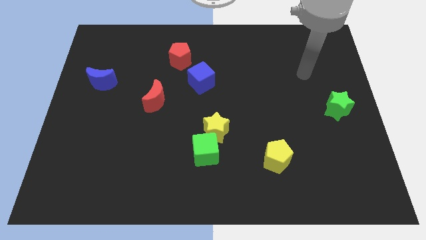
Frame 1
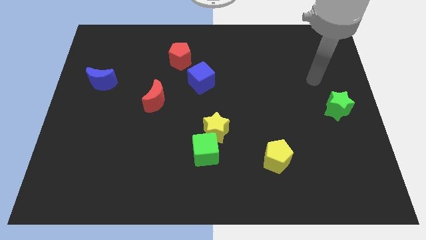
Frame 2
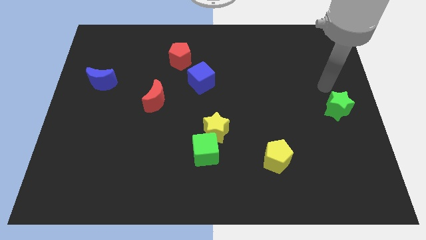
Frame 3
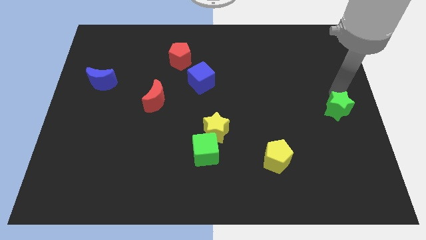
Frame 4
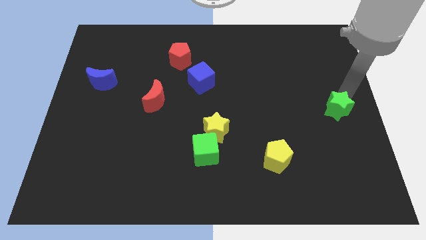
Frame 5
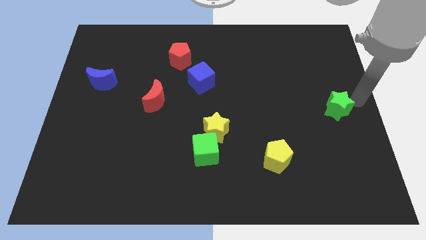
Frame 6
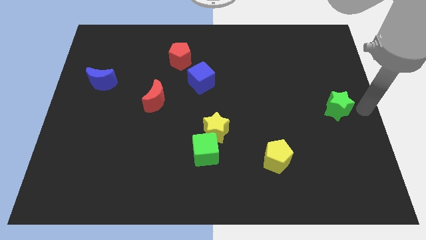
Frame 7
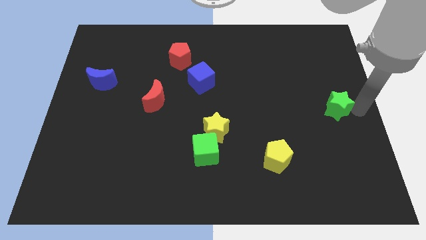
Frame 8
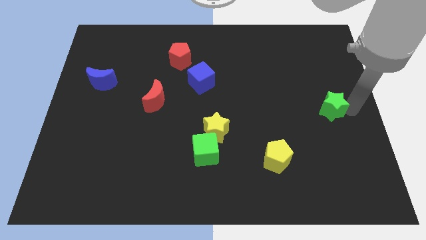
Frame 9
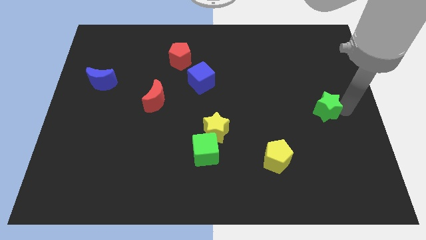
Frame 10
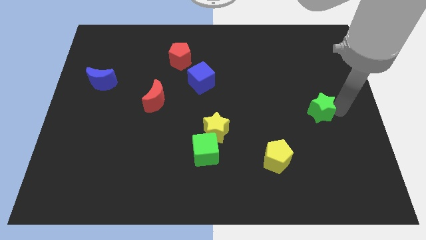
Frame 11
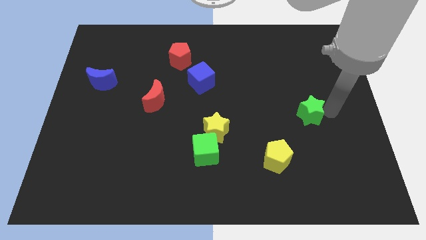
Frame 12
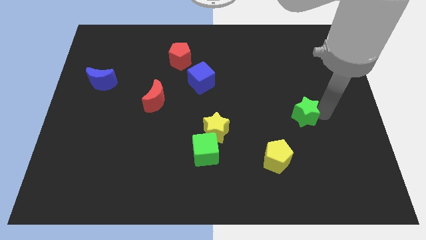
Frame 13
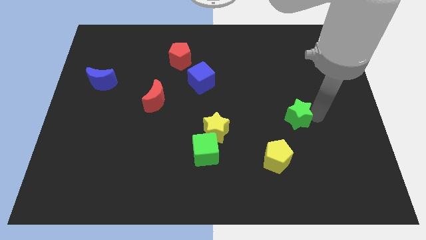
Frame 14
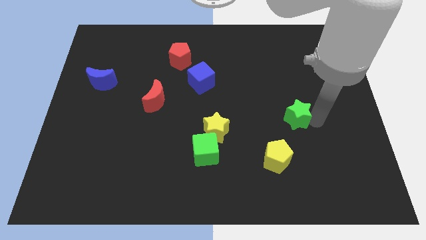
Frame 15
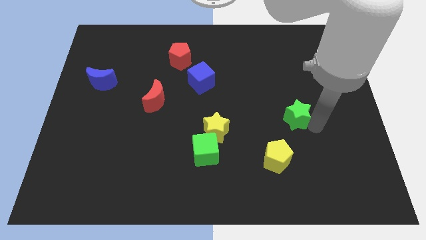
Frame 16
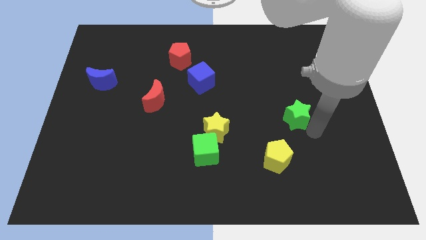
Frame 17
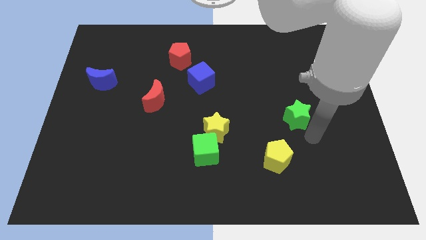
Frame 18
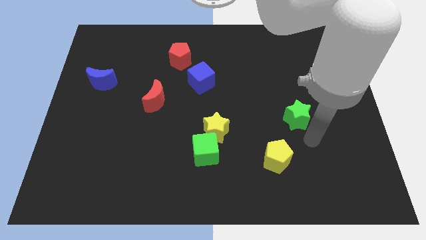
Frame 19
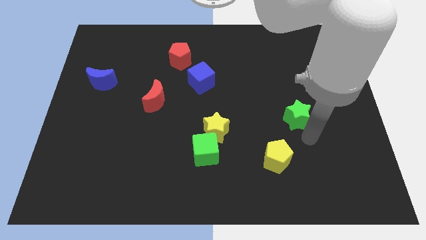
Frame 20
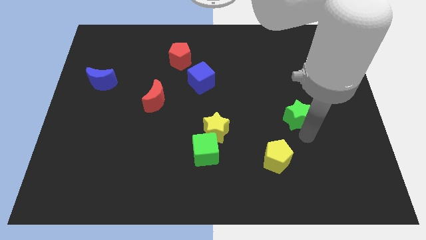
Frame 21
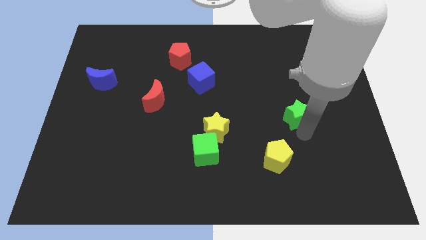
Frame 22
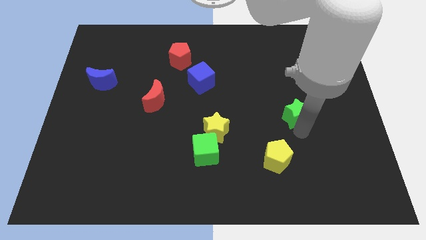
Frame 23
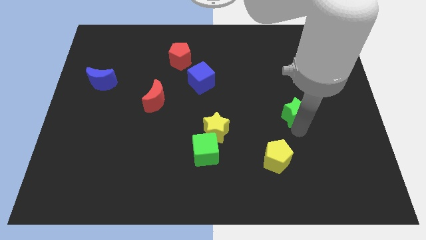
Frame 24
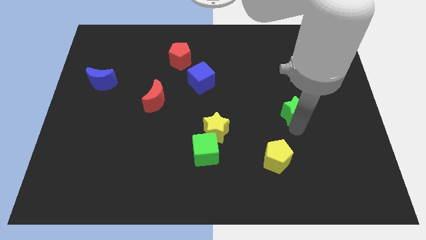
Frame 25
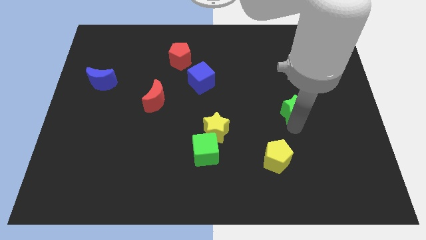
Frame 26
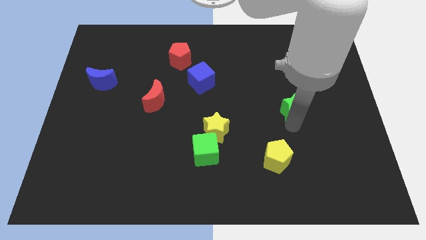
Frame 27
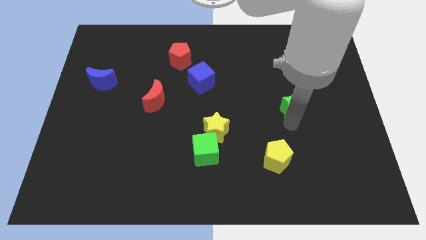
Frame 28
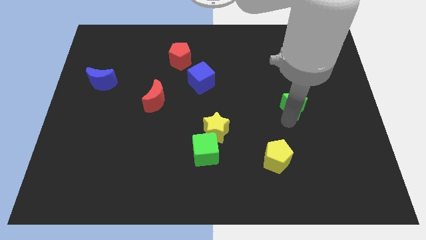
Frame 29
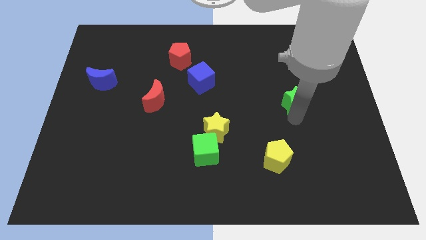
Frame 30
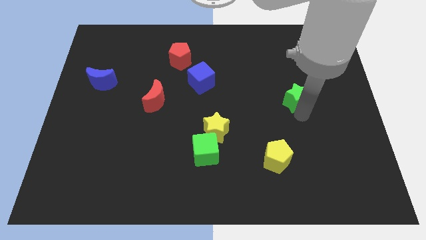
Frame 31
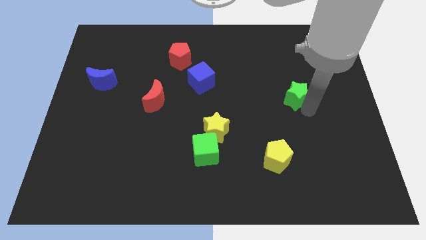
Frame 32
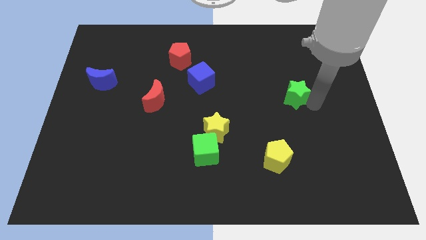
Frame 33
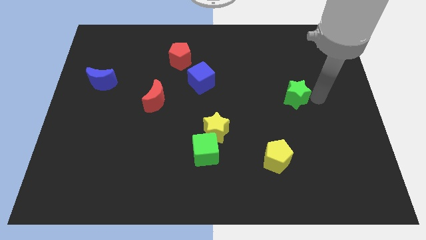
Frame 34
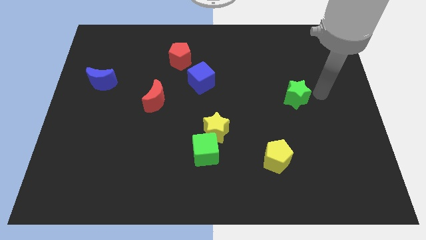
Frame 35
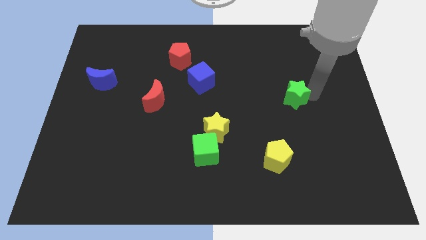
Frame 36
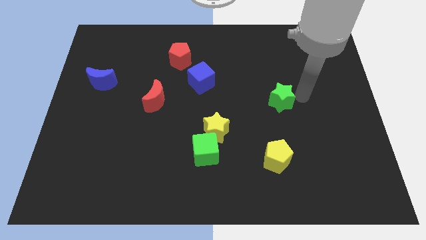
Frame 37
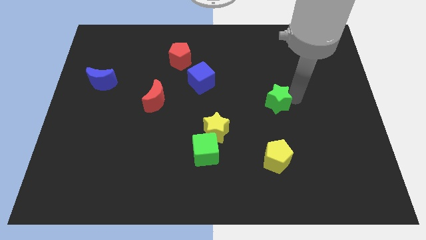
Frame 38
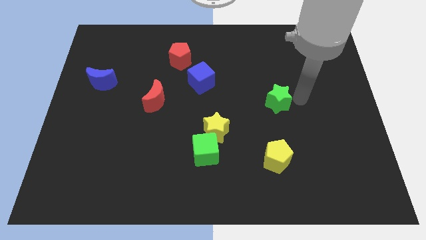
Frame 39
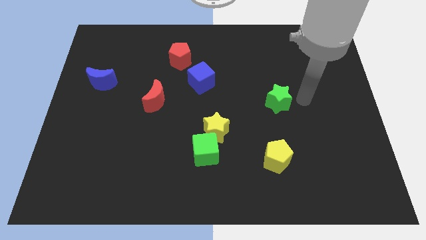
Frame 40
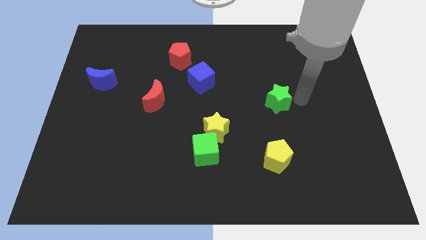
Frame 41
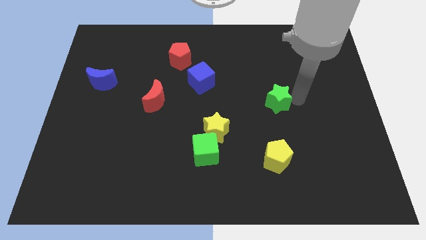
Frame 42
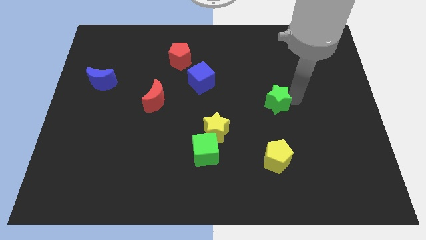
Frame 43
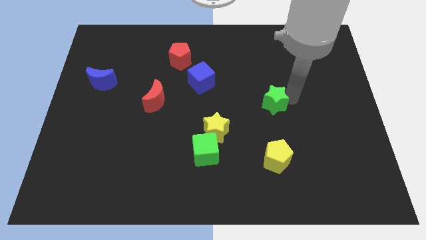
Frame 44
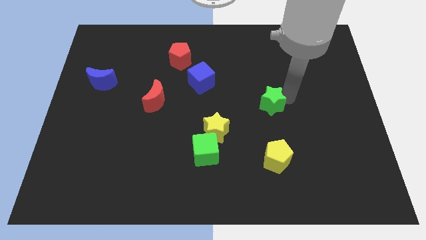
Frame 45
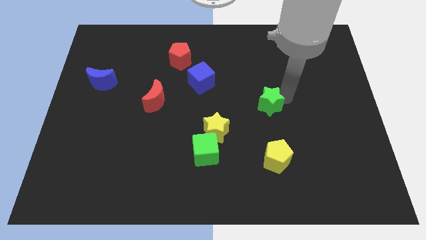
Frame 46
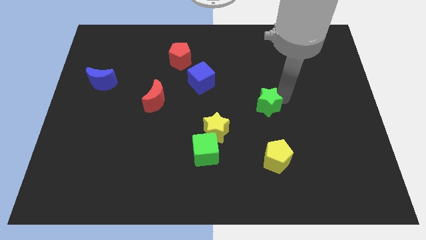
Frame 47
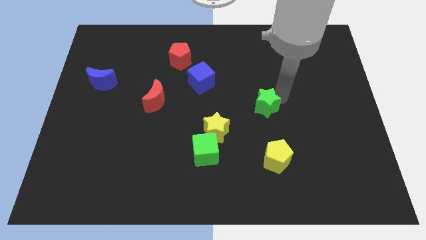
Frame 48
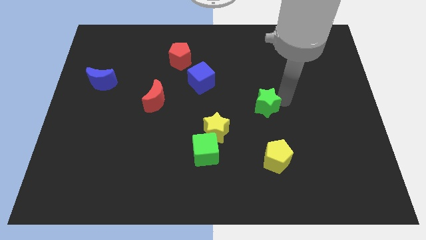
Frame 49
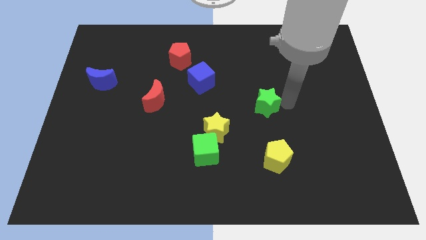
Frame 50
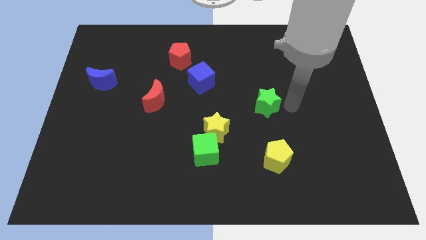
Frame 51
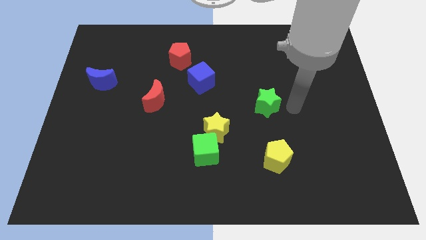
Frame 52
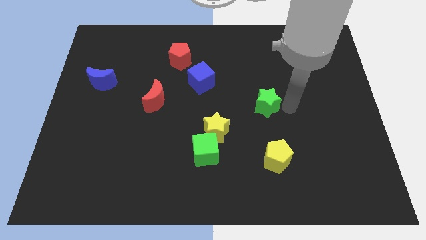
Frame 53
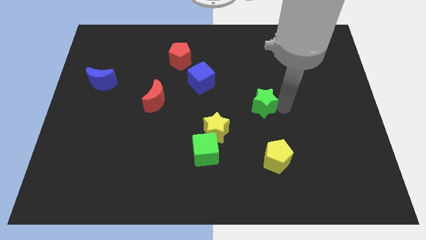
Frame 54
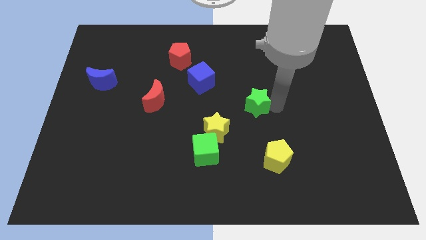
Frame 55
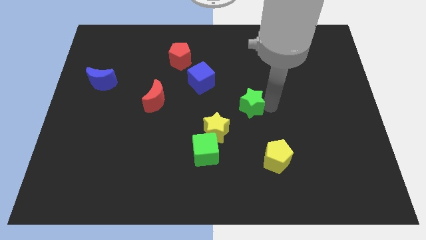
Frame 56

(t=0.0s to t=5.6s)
push the green star to the left

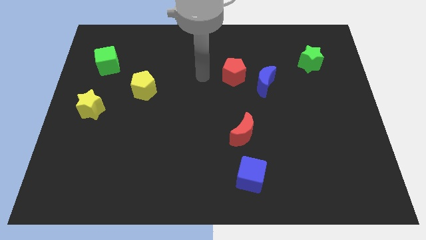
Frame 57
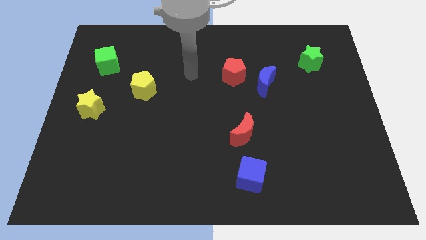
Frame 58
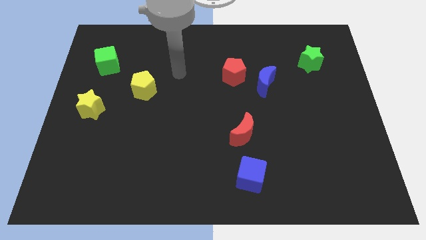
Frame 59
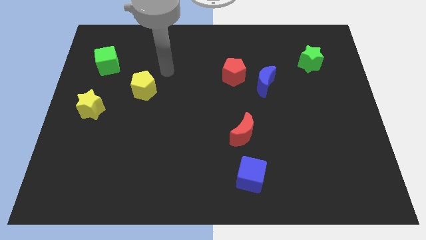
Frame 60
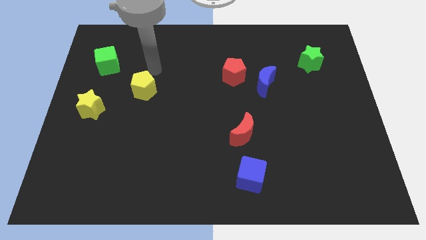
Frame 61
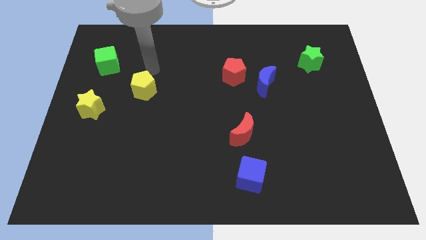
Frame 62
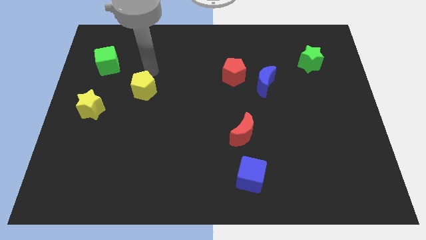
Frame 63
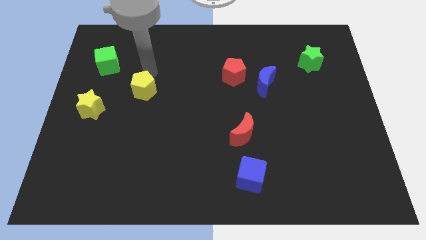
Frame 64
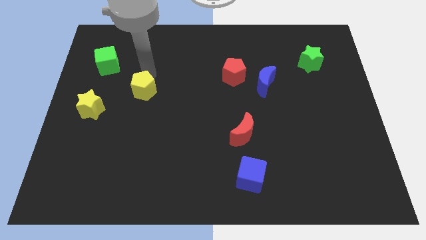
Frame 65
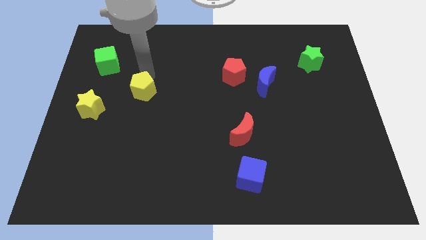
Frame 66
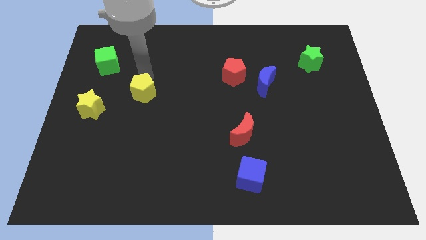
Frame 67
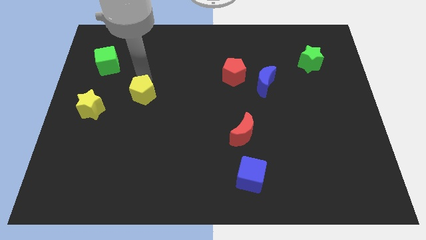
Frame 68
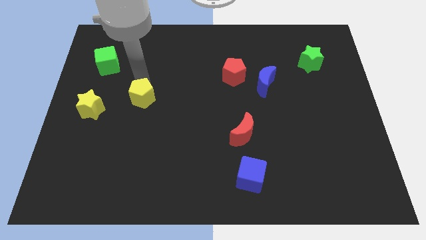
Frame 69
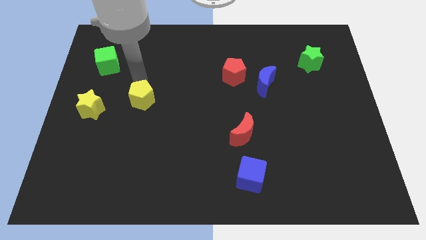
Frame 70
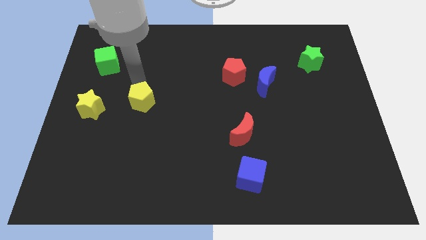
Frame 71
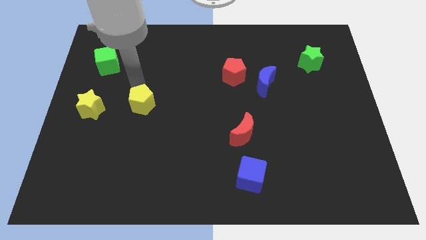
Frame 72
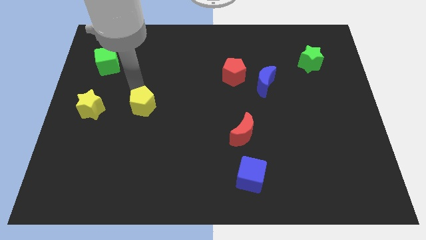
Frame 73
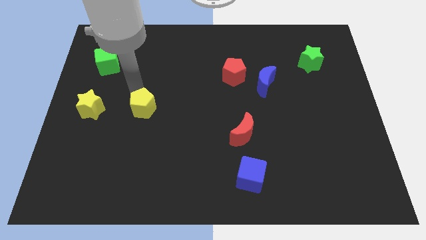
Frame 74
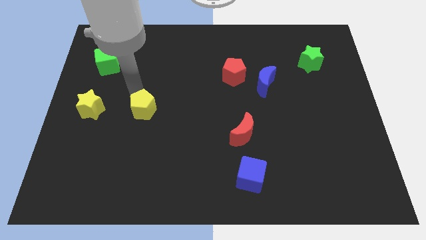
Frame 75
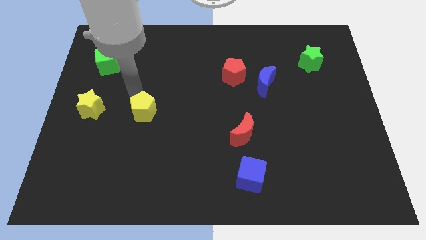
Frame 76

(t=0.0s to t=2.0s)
slightly move the yellow pentagon downwards

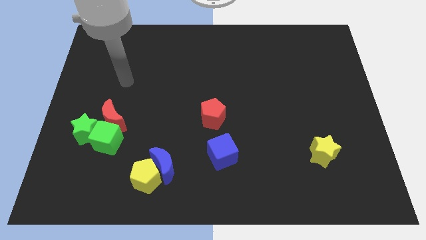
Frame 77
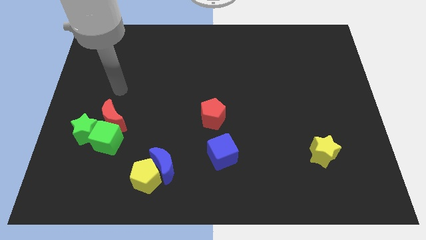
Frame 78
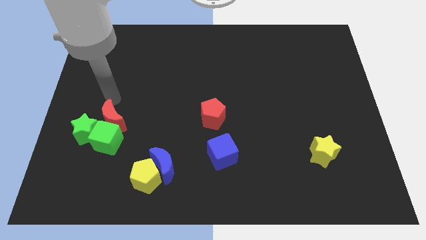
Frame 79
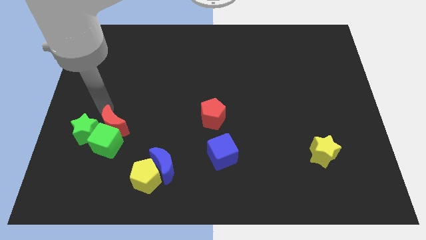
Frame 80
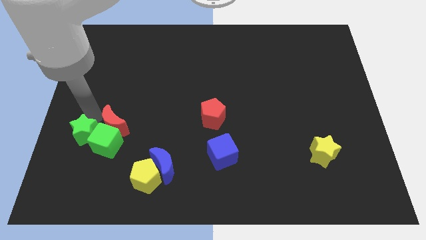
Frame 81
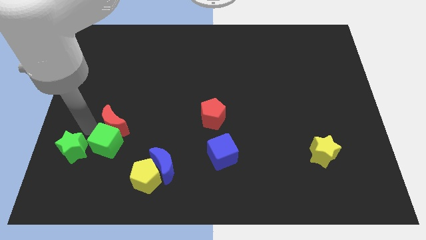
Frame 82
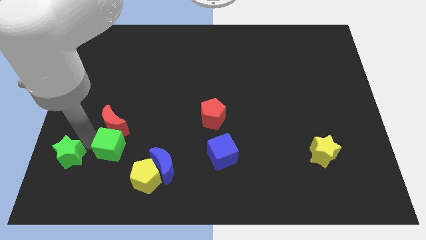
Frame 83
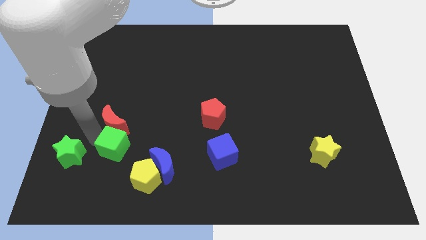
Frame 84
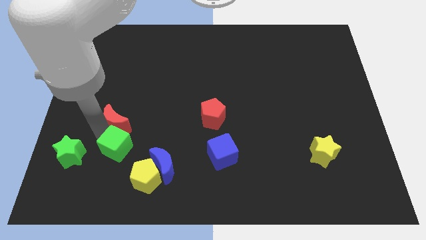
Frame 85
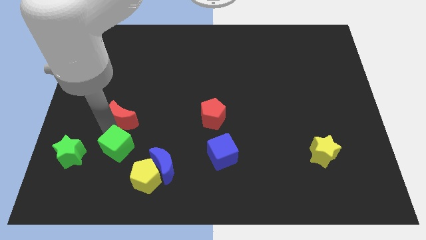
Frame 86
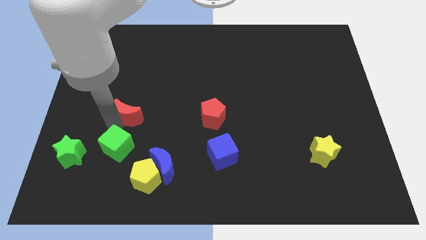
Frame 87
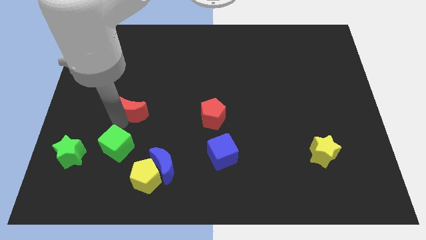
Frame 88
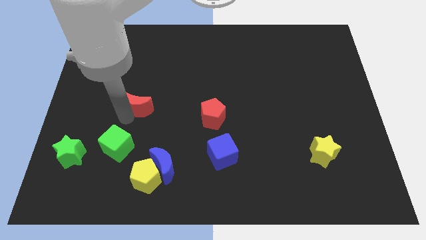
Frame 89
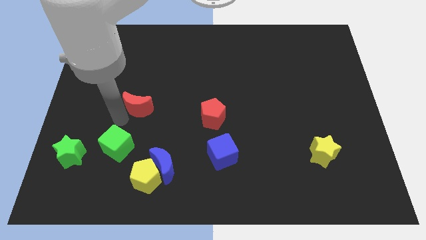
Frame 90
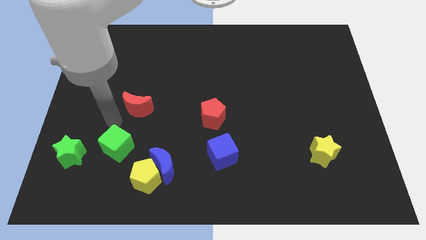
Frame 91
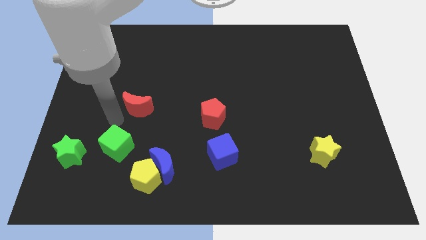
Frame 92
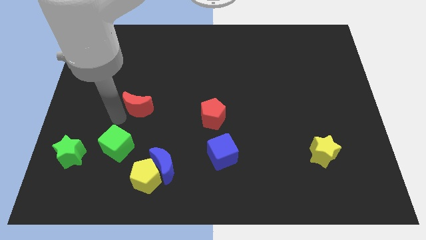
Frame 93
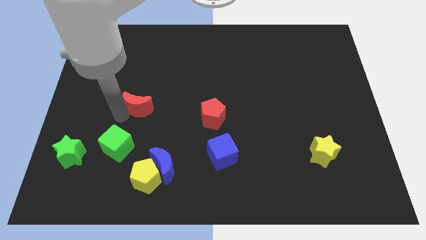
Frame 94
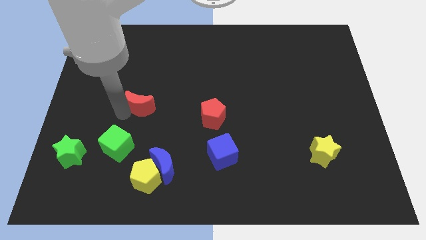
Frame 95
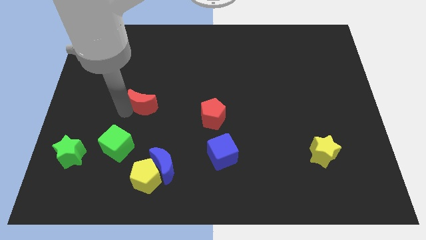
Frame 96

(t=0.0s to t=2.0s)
push the red moon upwards and then to the right slightly
